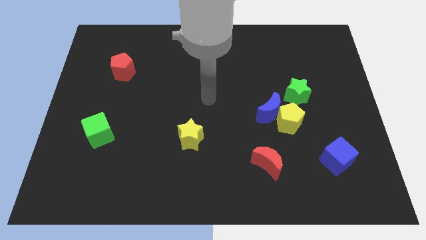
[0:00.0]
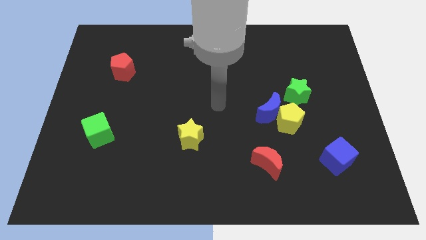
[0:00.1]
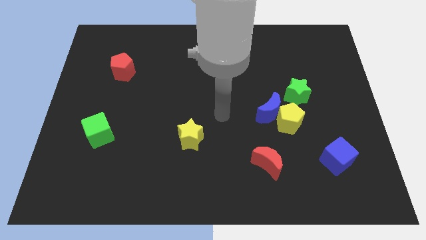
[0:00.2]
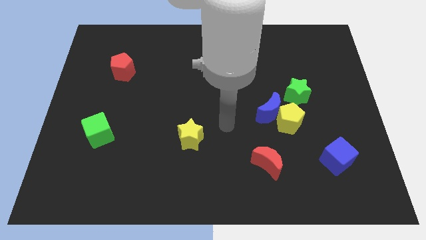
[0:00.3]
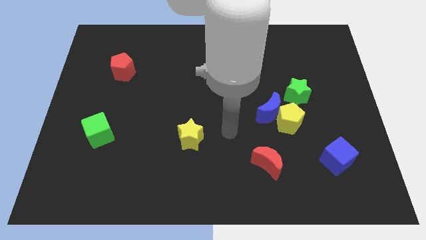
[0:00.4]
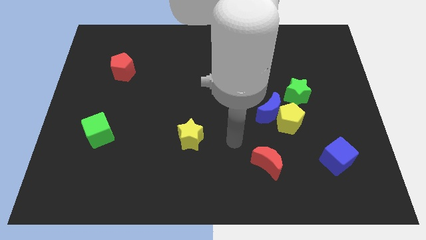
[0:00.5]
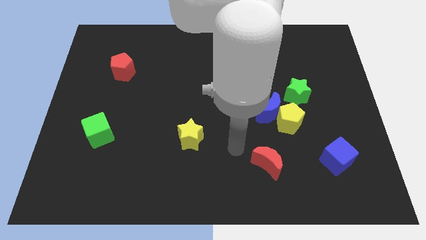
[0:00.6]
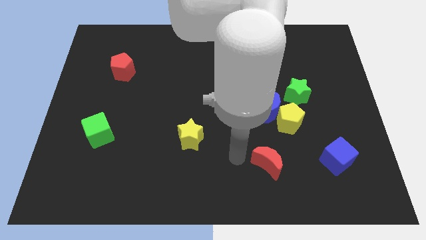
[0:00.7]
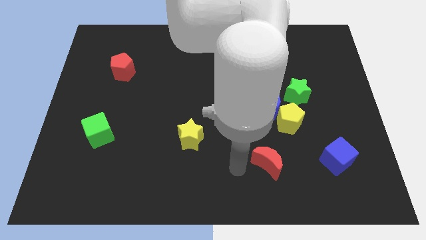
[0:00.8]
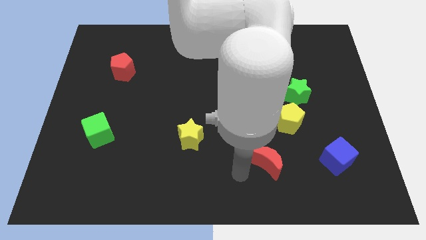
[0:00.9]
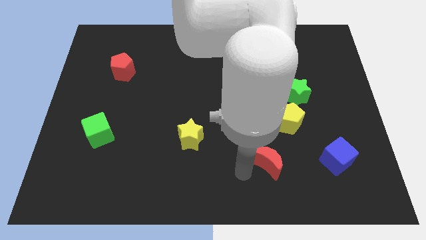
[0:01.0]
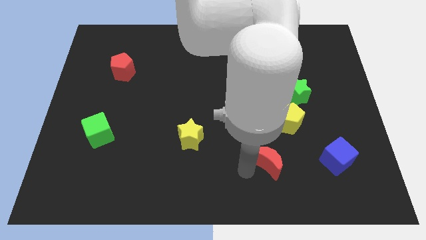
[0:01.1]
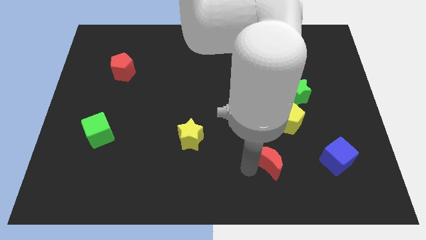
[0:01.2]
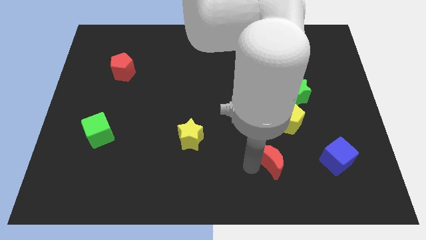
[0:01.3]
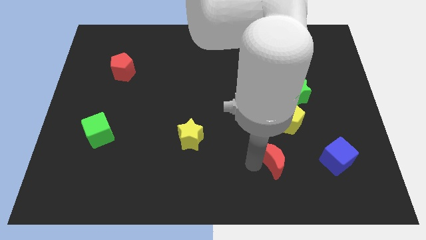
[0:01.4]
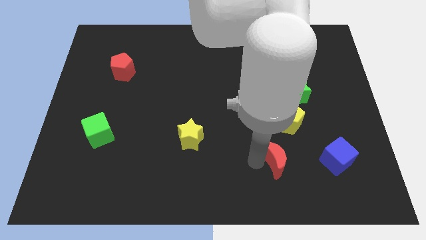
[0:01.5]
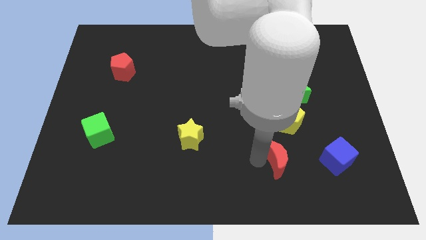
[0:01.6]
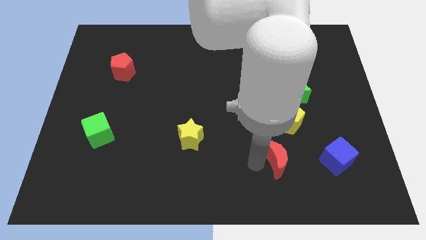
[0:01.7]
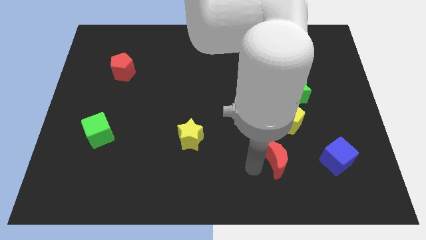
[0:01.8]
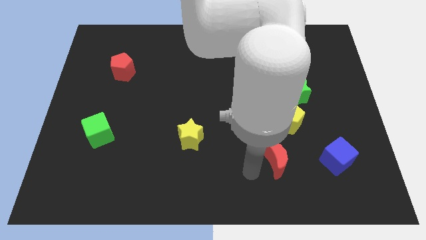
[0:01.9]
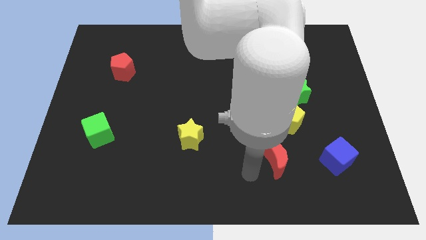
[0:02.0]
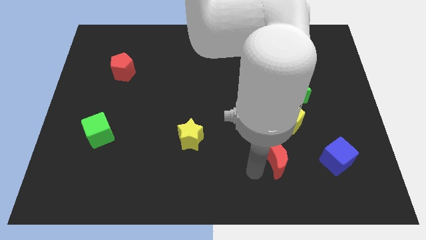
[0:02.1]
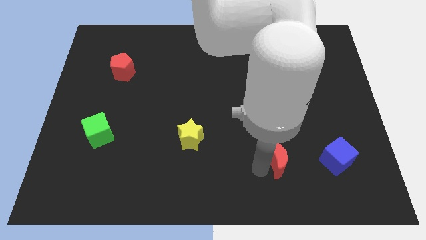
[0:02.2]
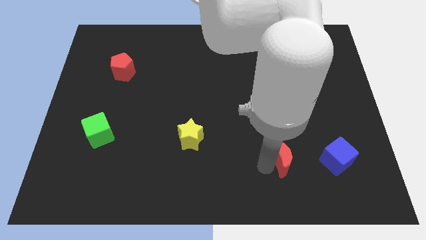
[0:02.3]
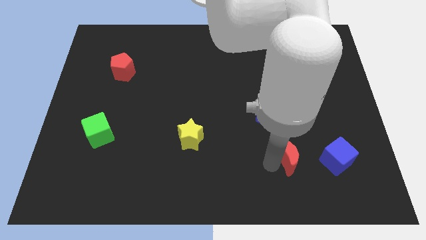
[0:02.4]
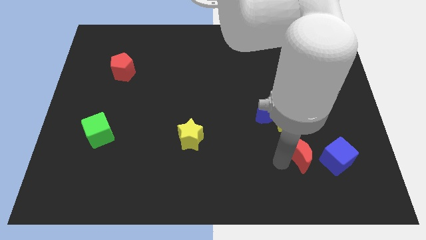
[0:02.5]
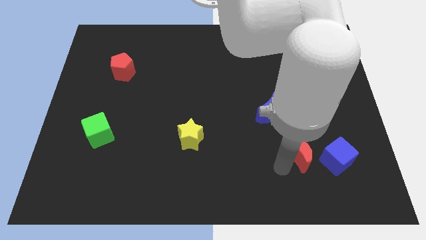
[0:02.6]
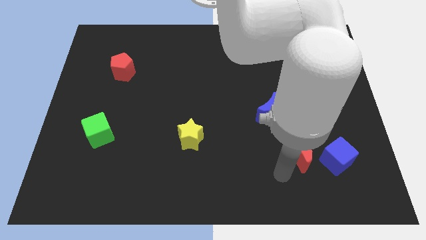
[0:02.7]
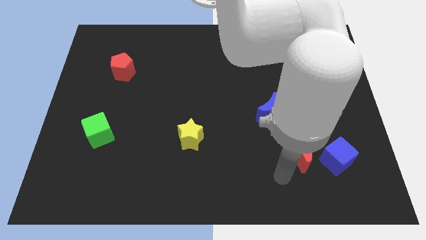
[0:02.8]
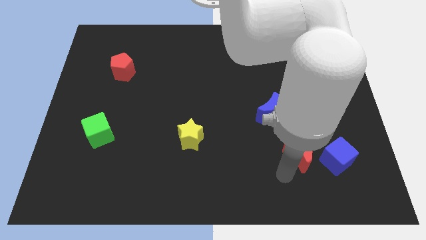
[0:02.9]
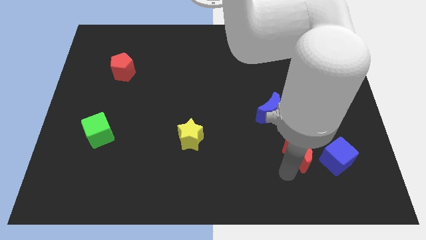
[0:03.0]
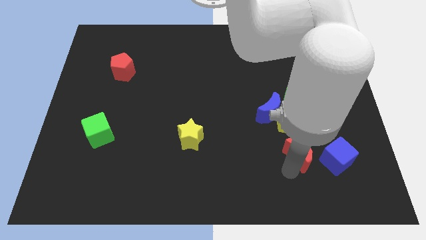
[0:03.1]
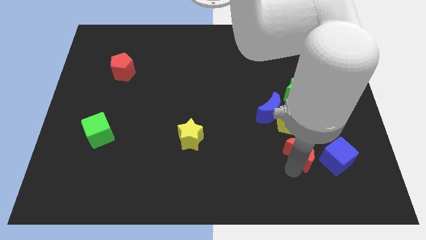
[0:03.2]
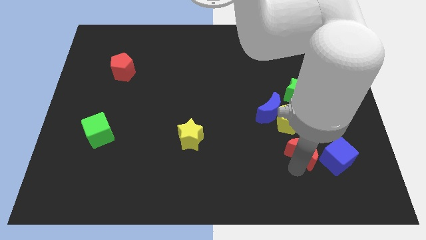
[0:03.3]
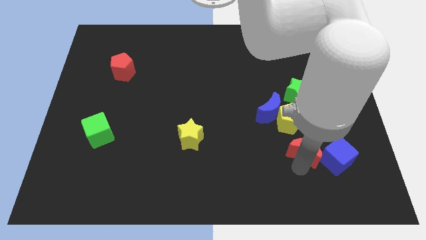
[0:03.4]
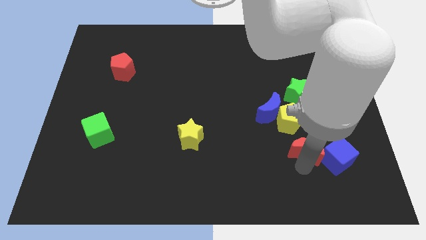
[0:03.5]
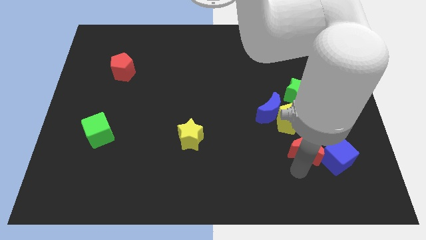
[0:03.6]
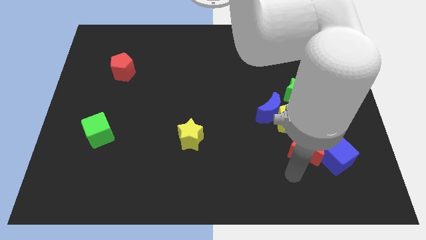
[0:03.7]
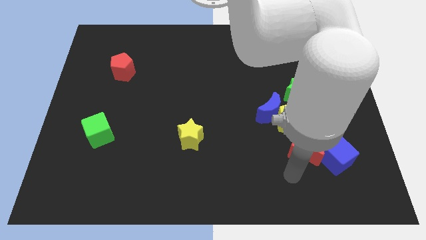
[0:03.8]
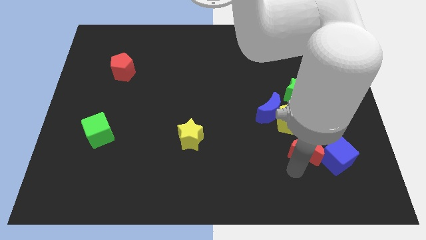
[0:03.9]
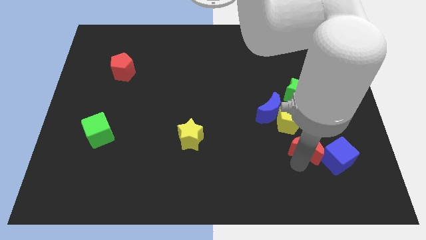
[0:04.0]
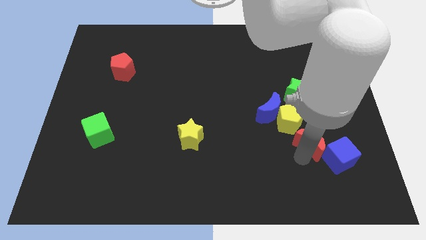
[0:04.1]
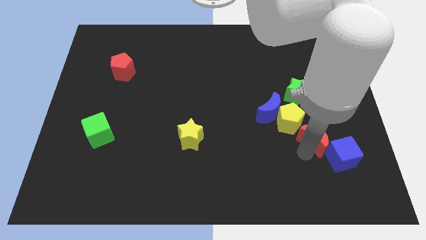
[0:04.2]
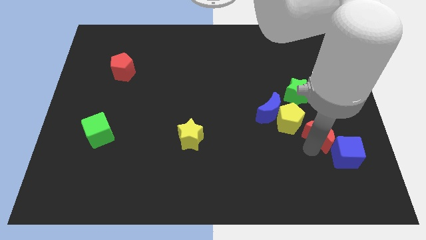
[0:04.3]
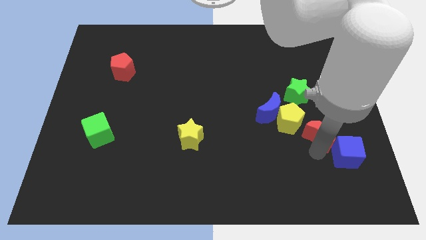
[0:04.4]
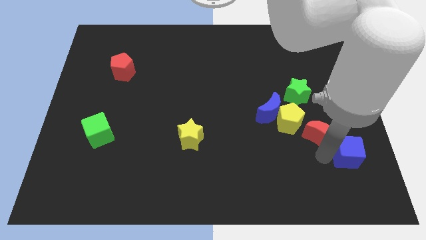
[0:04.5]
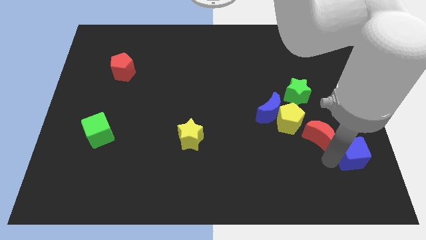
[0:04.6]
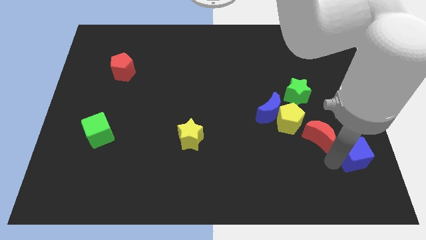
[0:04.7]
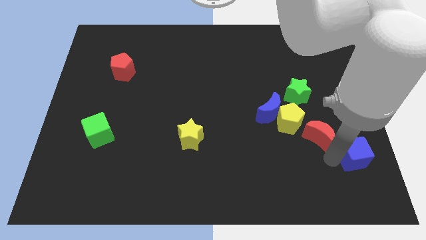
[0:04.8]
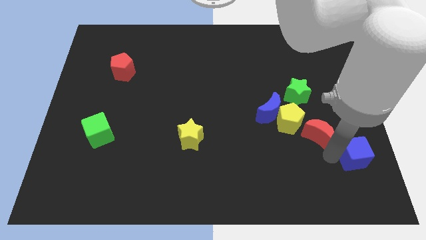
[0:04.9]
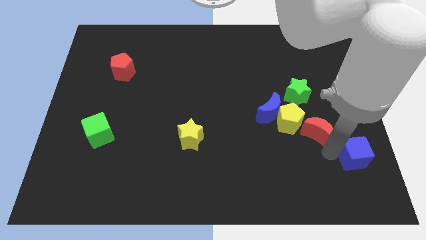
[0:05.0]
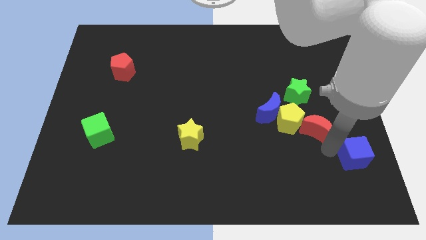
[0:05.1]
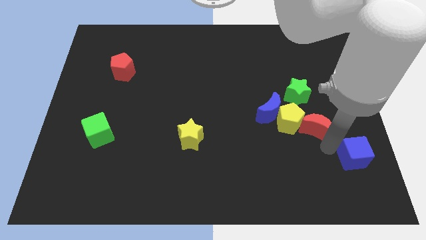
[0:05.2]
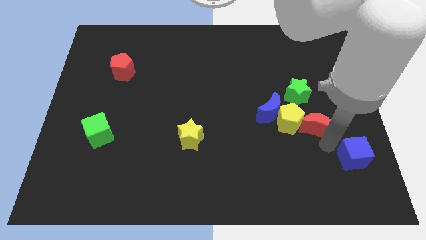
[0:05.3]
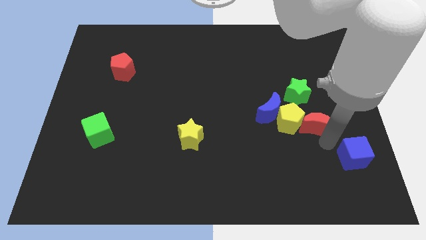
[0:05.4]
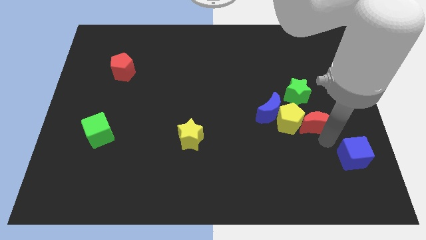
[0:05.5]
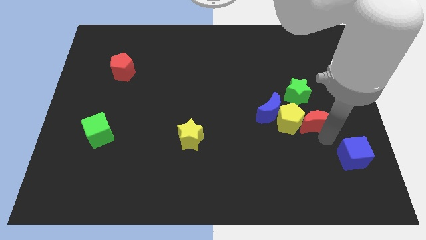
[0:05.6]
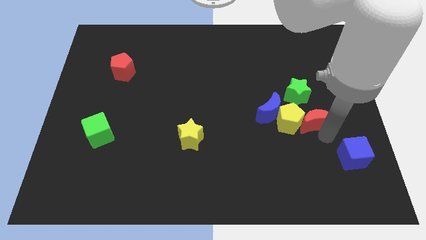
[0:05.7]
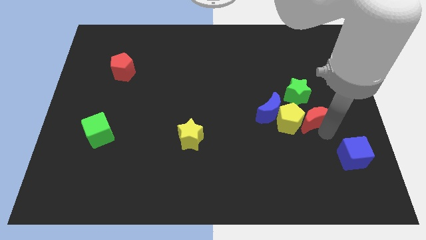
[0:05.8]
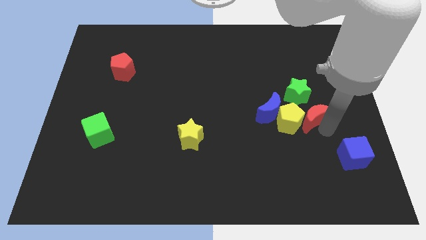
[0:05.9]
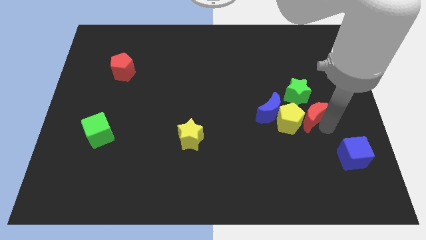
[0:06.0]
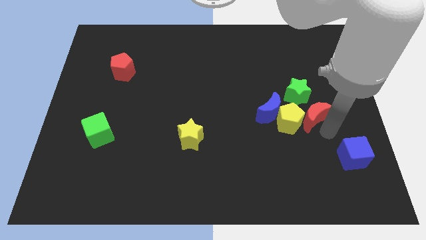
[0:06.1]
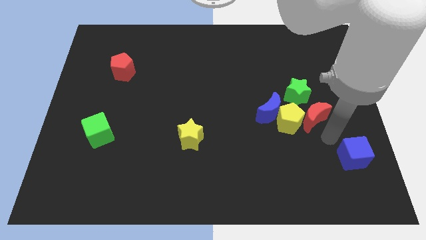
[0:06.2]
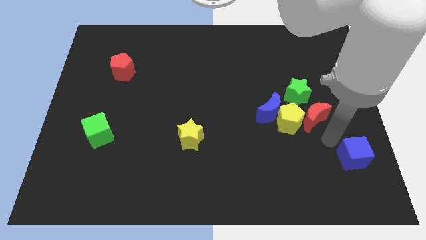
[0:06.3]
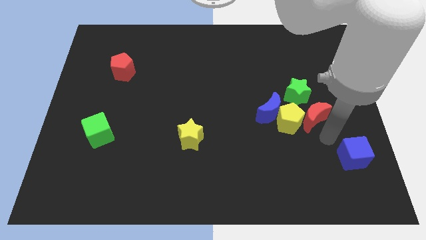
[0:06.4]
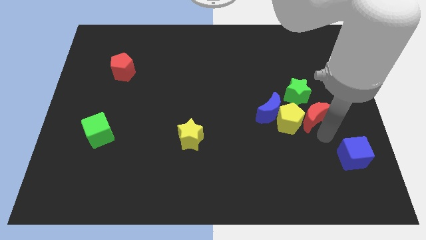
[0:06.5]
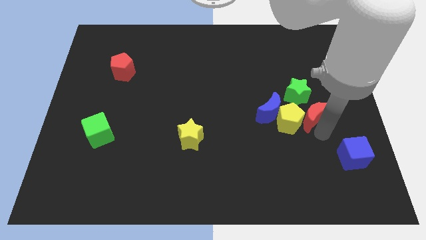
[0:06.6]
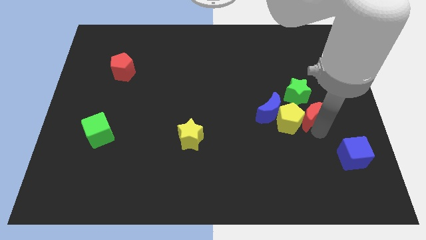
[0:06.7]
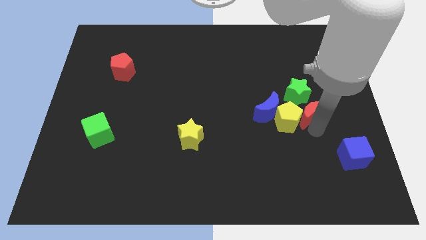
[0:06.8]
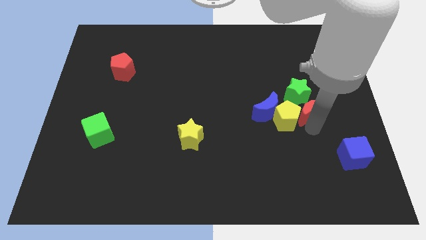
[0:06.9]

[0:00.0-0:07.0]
put the red moon to the green star

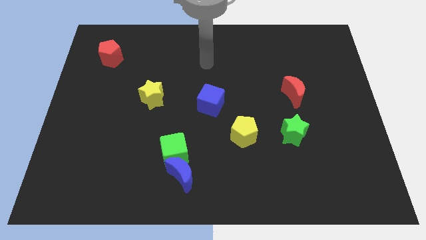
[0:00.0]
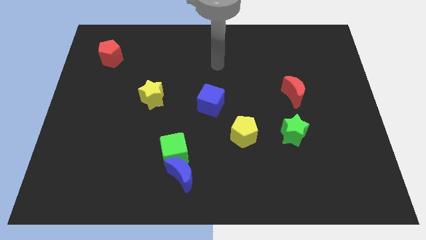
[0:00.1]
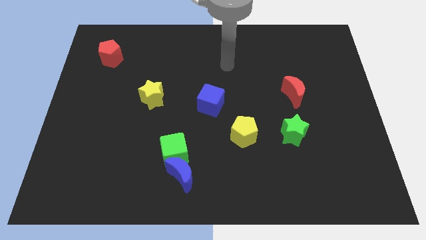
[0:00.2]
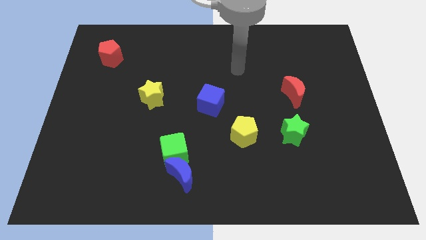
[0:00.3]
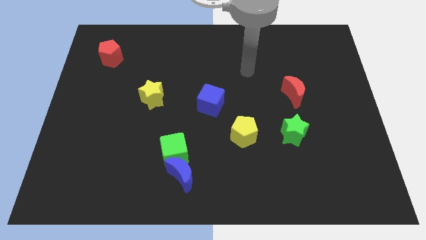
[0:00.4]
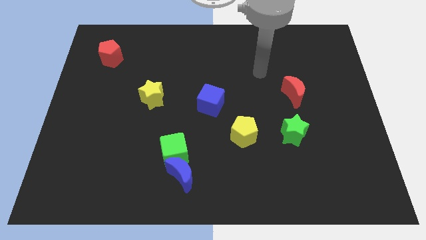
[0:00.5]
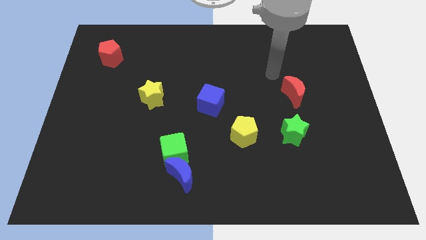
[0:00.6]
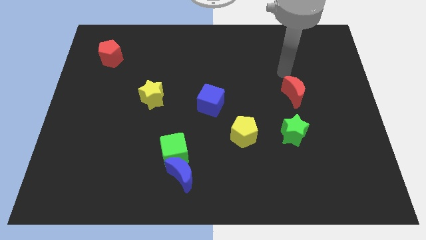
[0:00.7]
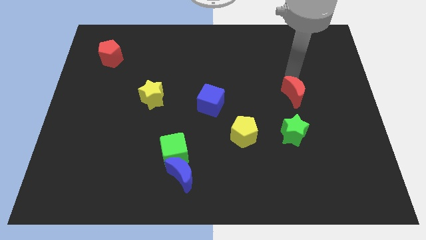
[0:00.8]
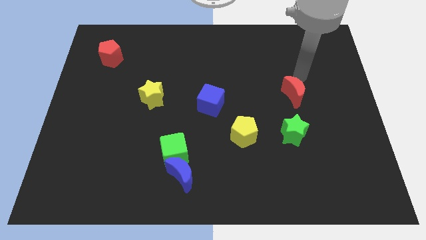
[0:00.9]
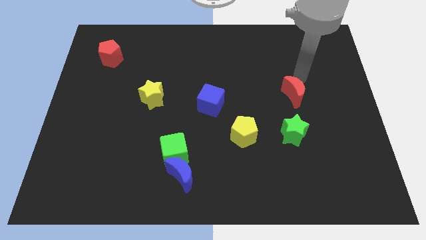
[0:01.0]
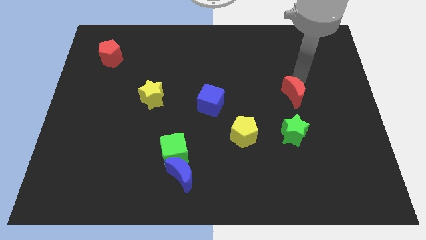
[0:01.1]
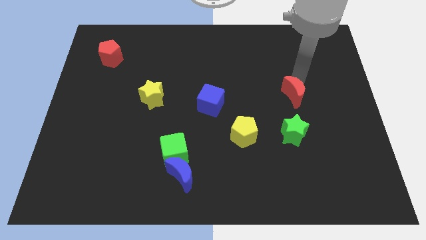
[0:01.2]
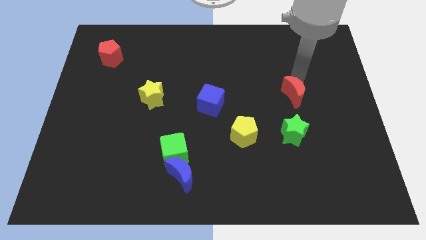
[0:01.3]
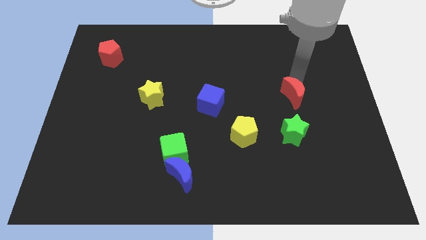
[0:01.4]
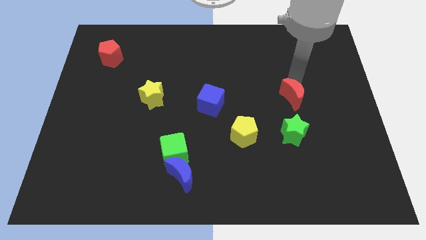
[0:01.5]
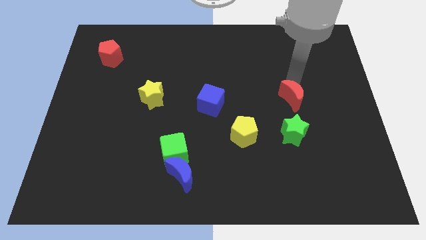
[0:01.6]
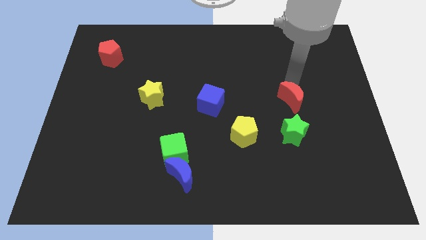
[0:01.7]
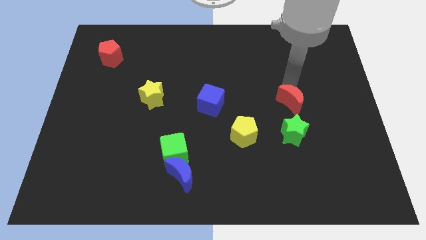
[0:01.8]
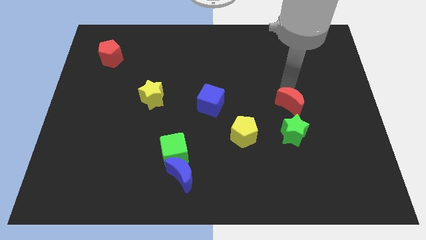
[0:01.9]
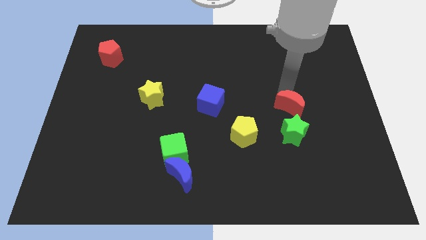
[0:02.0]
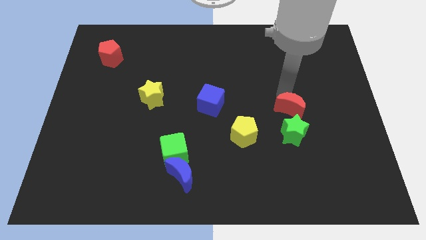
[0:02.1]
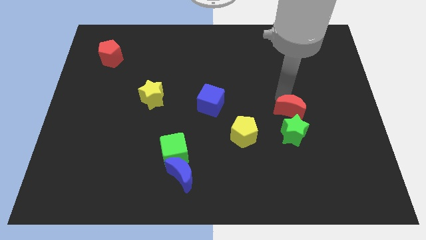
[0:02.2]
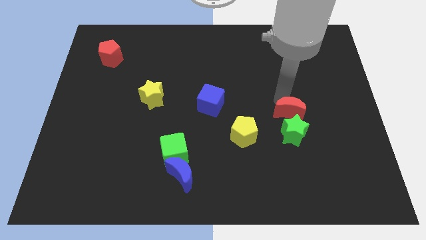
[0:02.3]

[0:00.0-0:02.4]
slide the red moon towards the green star
